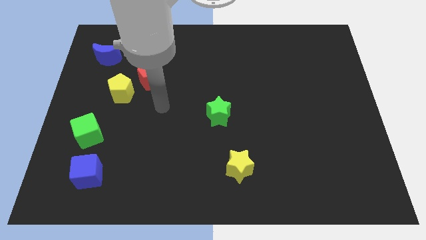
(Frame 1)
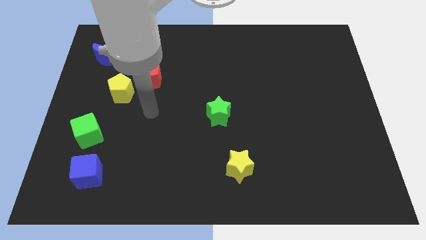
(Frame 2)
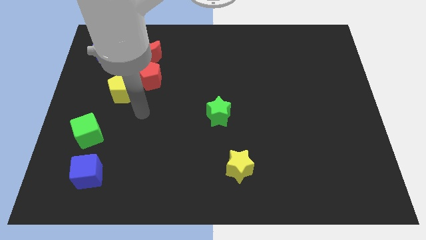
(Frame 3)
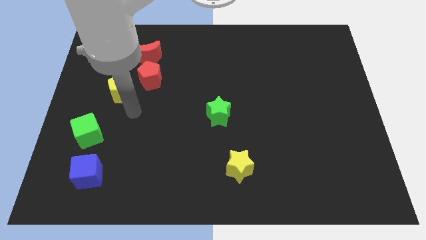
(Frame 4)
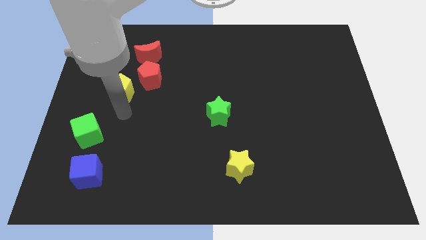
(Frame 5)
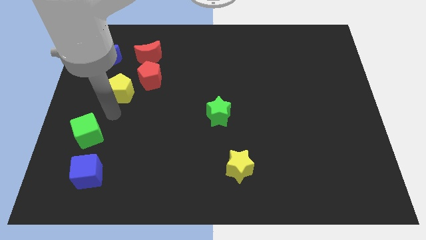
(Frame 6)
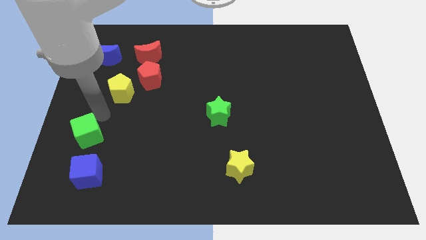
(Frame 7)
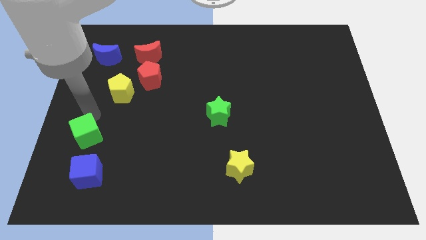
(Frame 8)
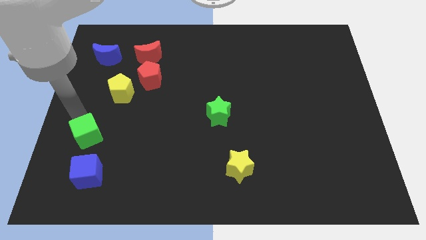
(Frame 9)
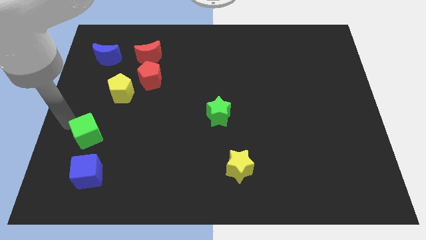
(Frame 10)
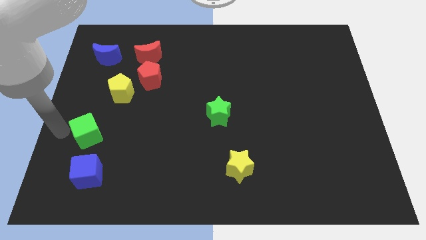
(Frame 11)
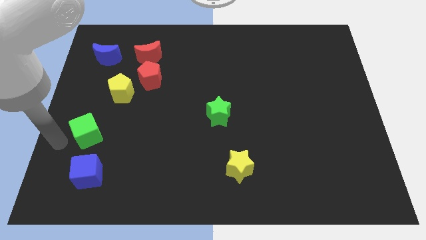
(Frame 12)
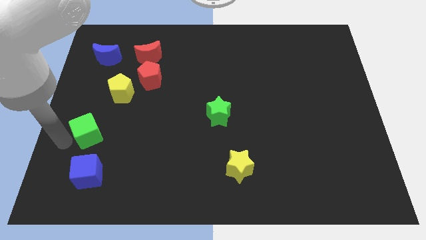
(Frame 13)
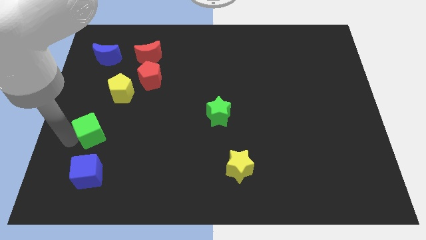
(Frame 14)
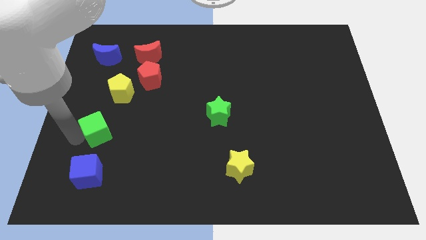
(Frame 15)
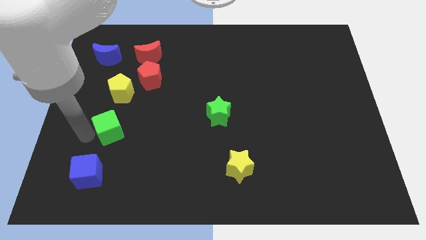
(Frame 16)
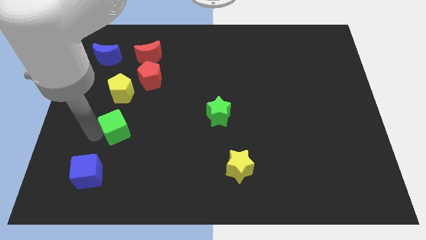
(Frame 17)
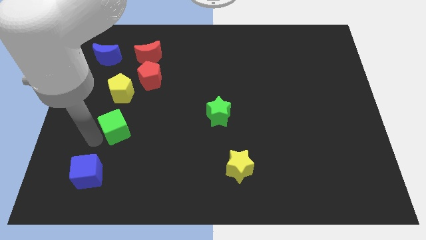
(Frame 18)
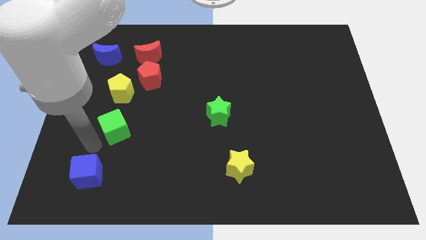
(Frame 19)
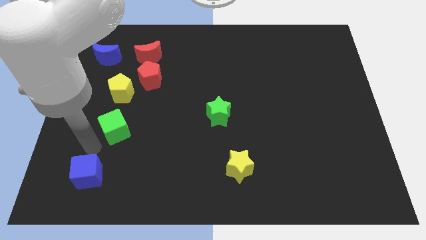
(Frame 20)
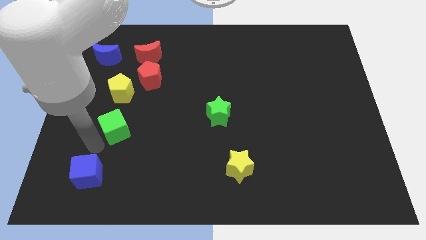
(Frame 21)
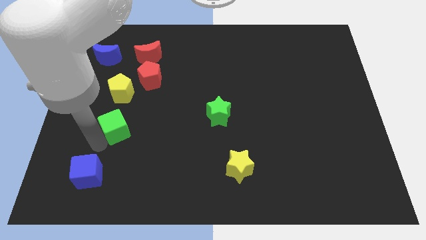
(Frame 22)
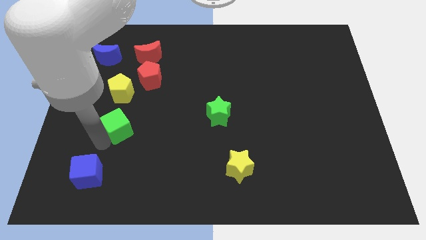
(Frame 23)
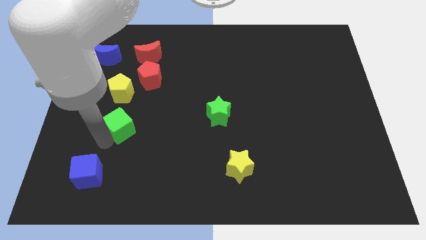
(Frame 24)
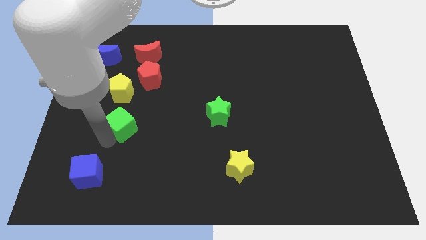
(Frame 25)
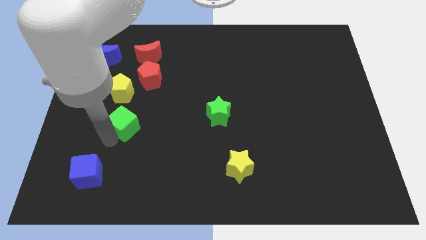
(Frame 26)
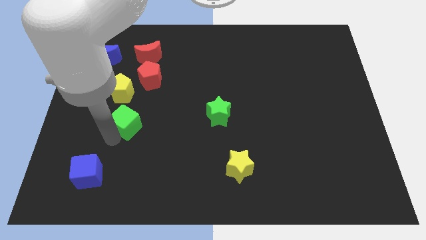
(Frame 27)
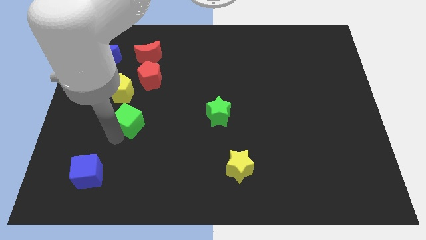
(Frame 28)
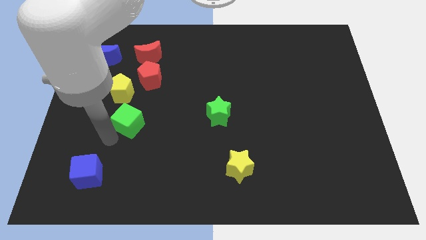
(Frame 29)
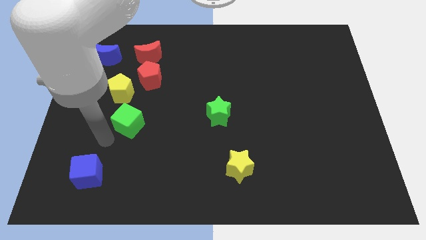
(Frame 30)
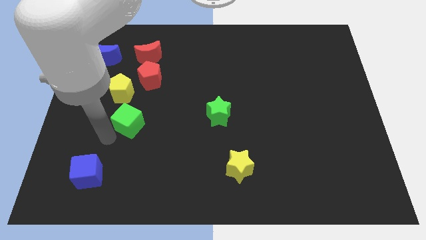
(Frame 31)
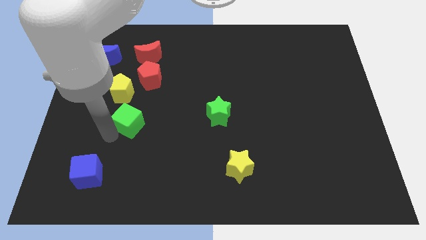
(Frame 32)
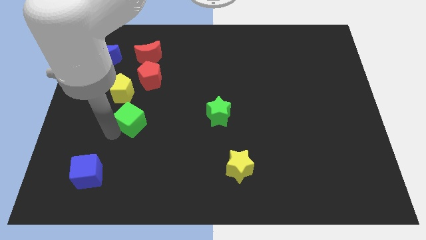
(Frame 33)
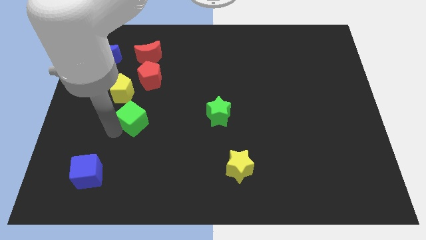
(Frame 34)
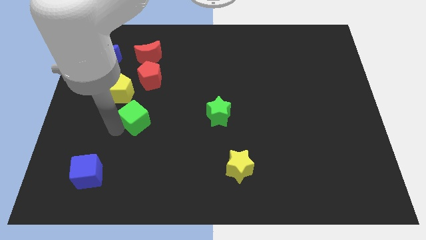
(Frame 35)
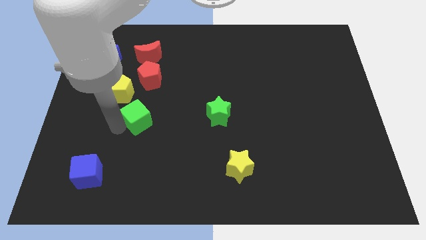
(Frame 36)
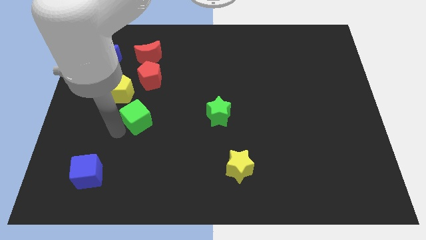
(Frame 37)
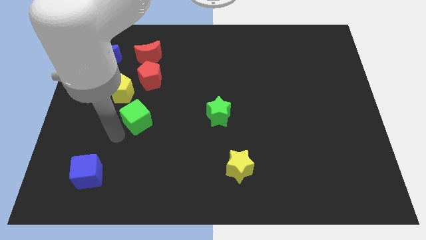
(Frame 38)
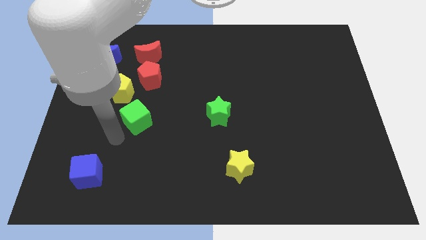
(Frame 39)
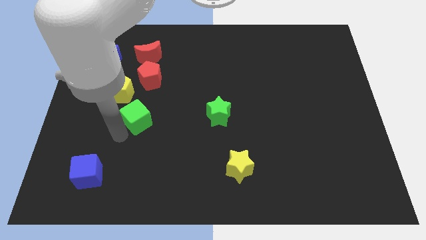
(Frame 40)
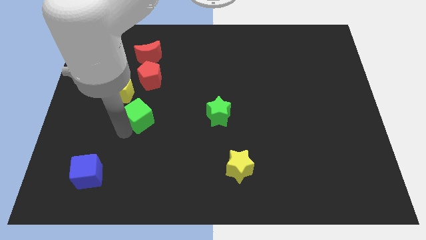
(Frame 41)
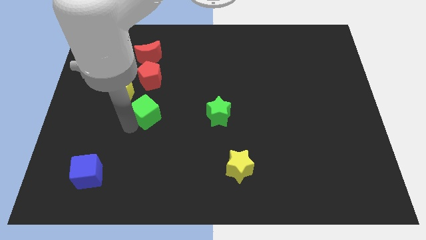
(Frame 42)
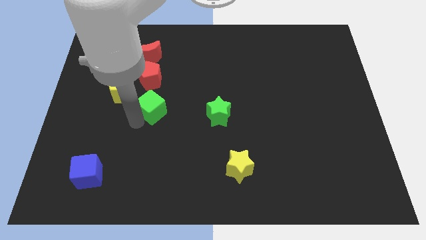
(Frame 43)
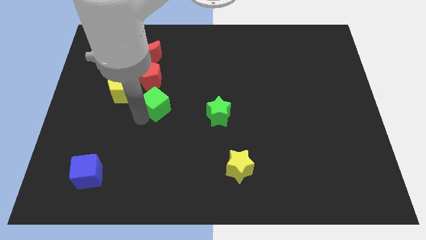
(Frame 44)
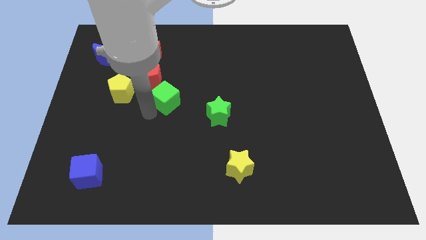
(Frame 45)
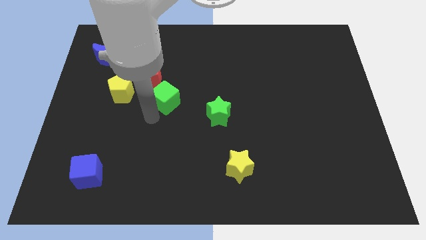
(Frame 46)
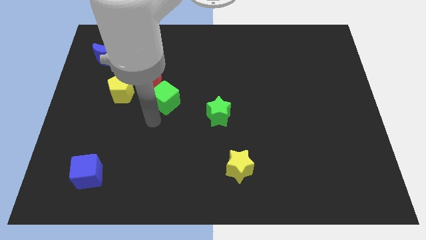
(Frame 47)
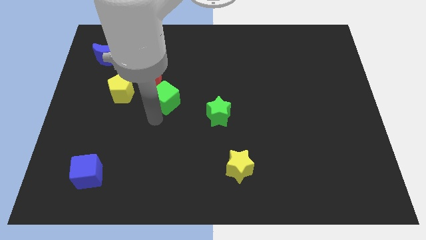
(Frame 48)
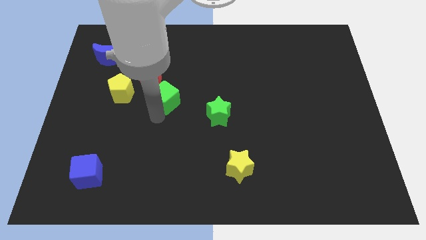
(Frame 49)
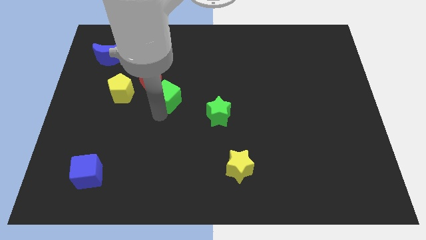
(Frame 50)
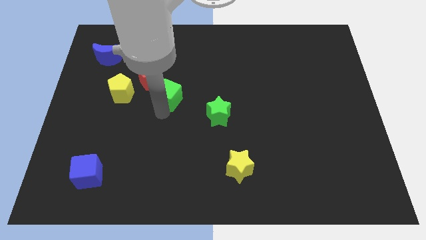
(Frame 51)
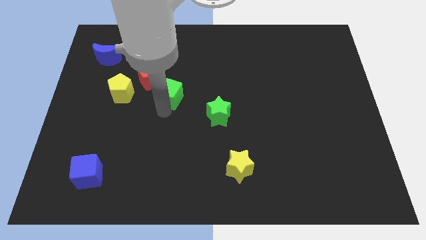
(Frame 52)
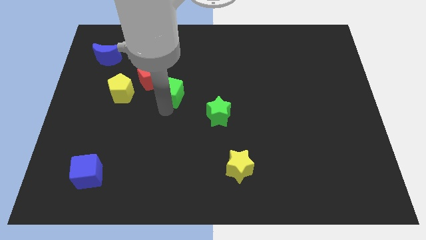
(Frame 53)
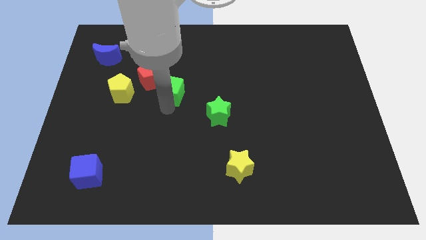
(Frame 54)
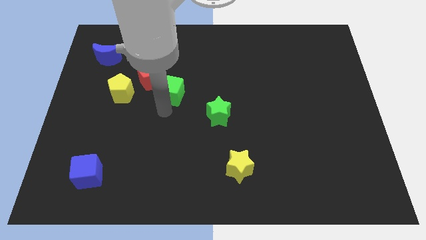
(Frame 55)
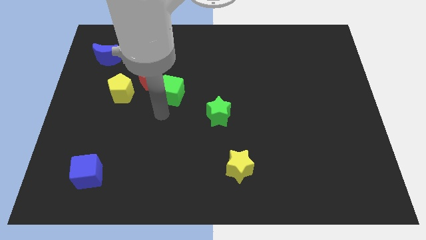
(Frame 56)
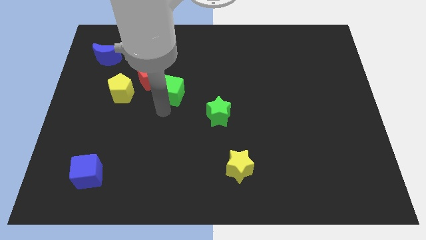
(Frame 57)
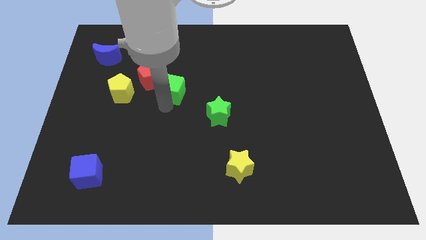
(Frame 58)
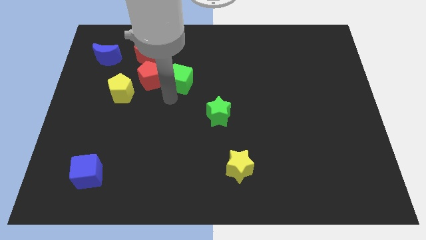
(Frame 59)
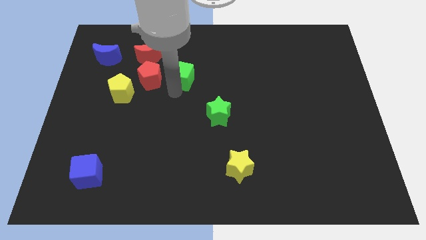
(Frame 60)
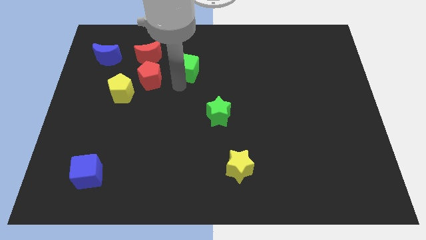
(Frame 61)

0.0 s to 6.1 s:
move the green cube right of the red moon

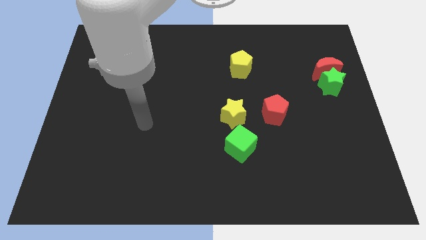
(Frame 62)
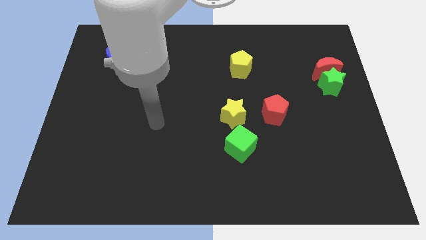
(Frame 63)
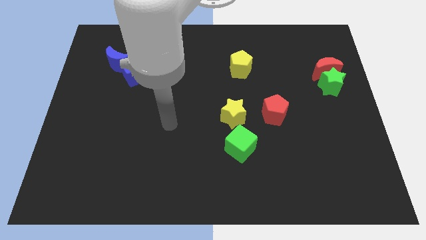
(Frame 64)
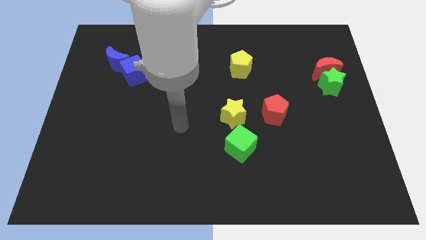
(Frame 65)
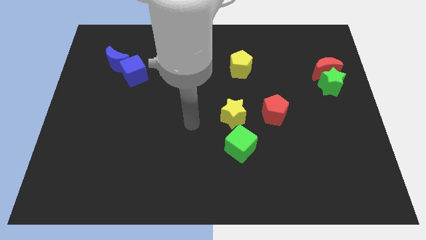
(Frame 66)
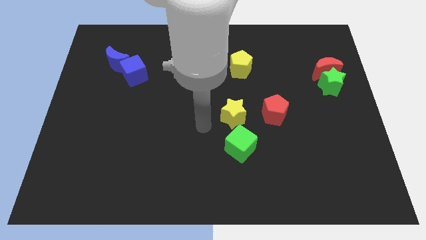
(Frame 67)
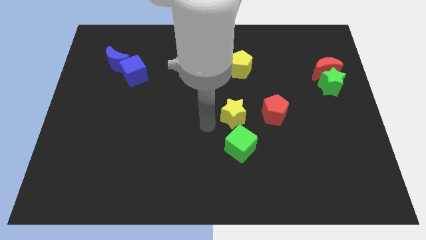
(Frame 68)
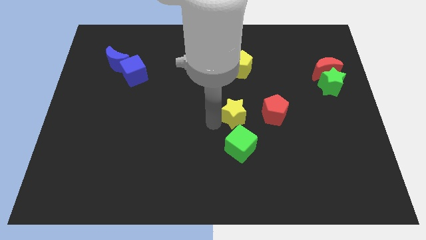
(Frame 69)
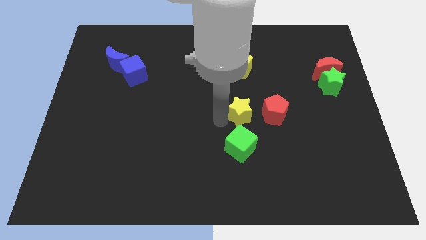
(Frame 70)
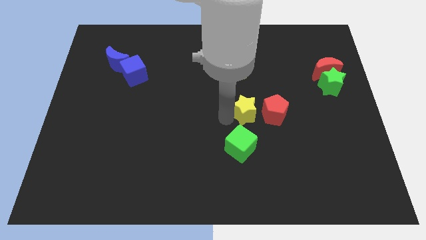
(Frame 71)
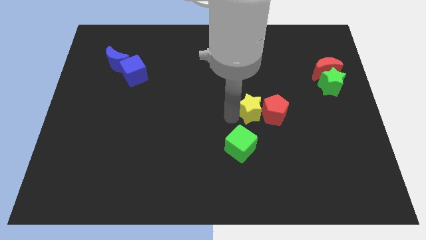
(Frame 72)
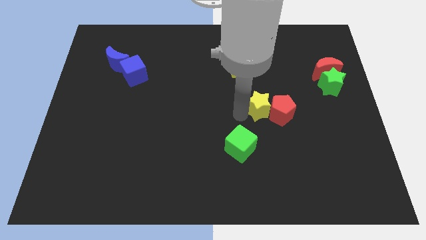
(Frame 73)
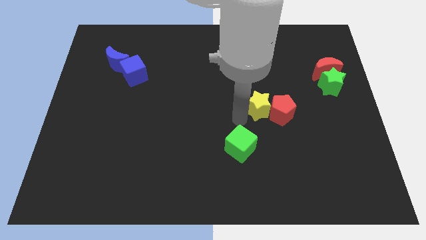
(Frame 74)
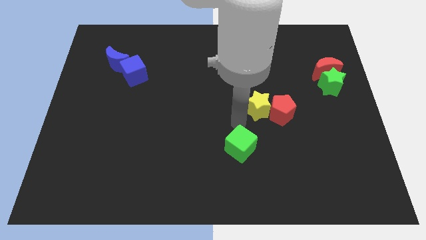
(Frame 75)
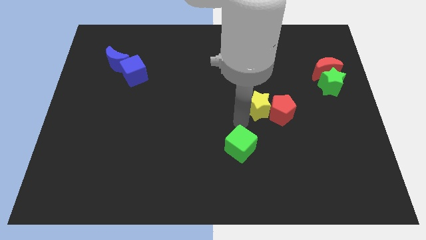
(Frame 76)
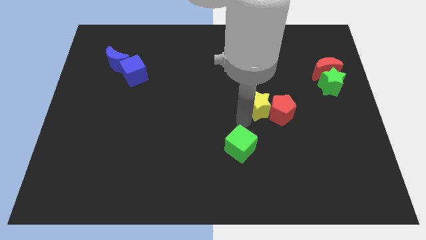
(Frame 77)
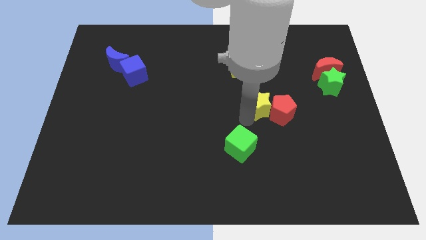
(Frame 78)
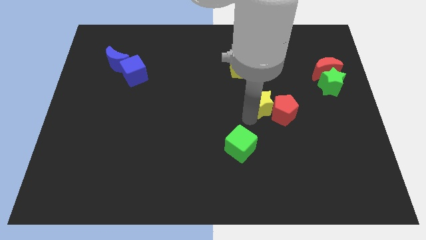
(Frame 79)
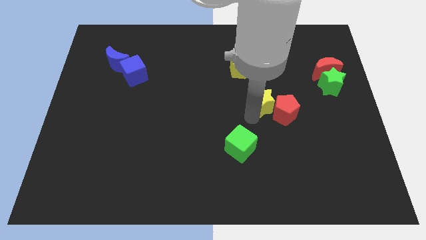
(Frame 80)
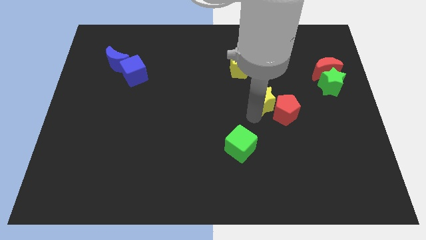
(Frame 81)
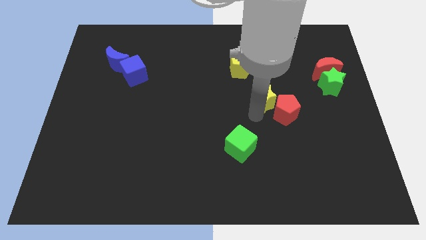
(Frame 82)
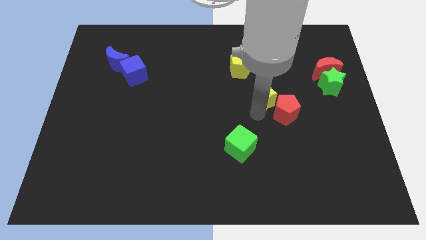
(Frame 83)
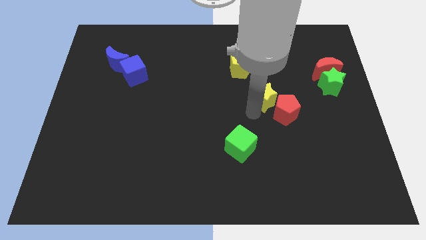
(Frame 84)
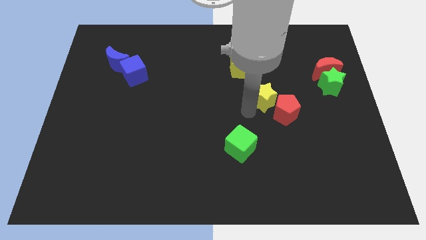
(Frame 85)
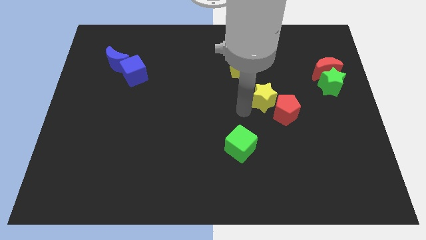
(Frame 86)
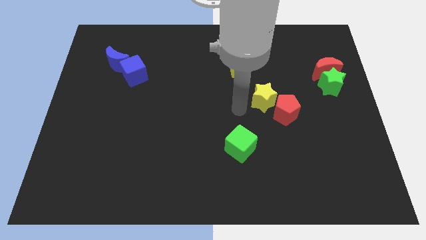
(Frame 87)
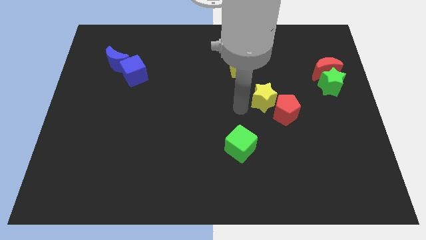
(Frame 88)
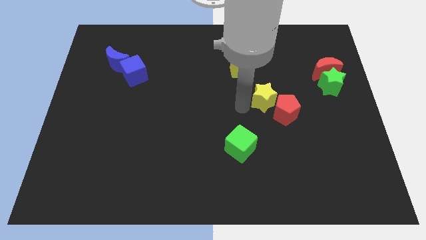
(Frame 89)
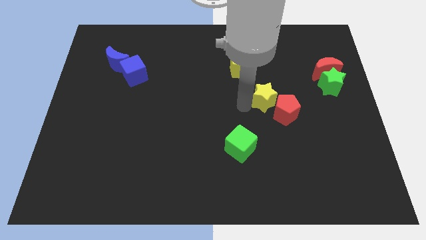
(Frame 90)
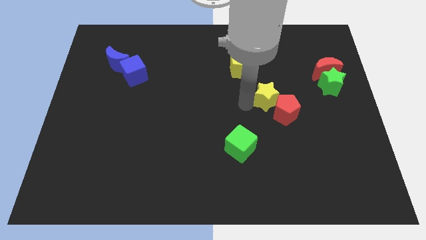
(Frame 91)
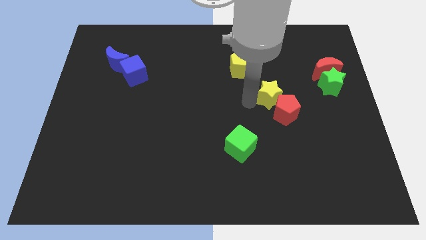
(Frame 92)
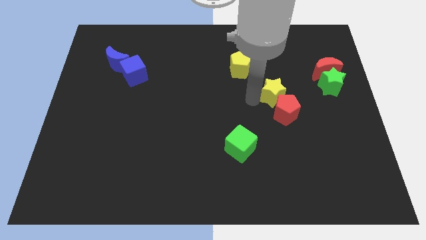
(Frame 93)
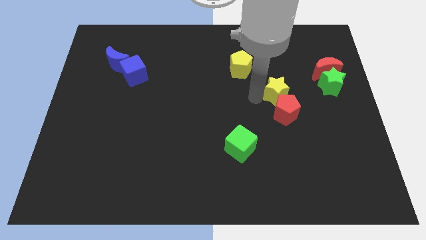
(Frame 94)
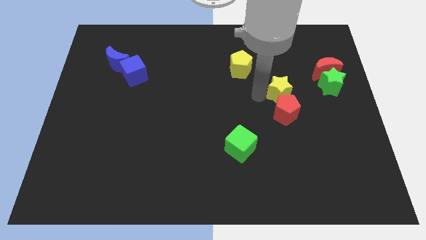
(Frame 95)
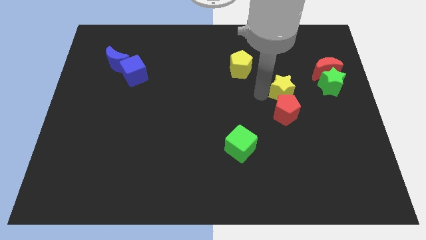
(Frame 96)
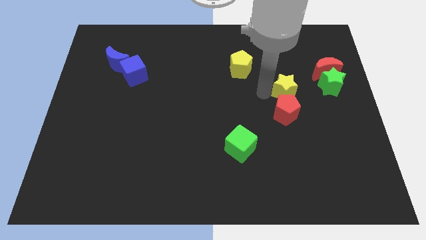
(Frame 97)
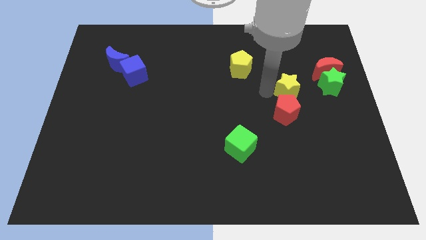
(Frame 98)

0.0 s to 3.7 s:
put the yellow star to the bottom left of the red moon
